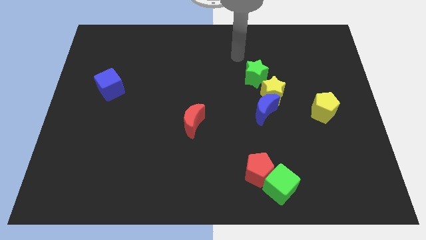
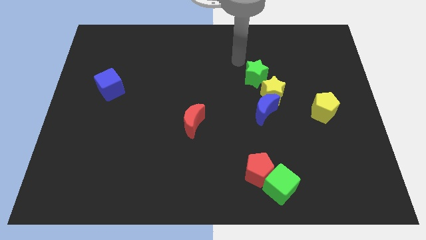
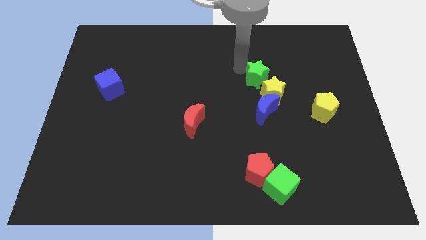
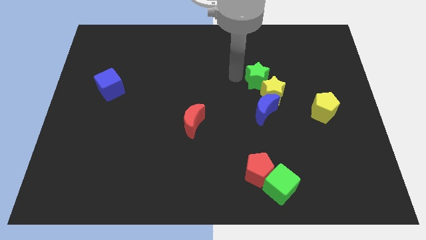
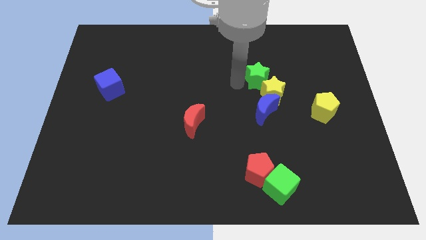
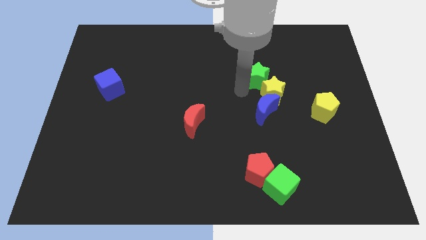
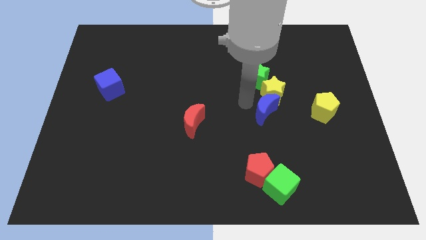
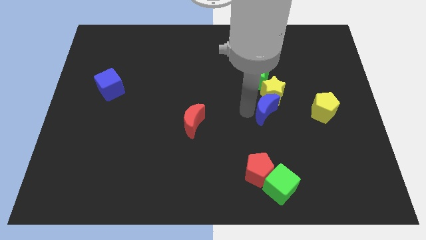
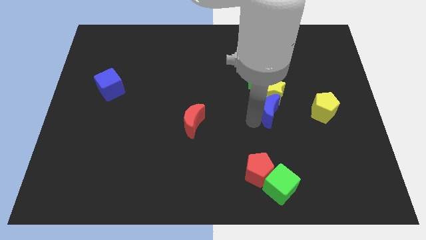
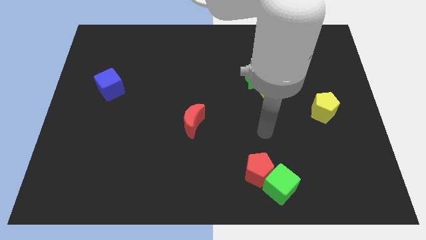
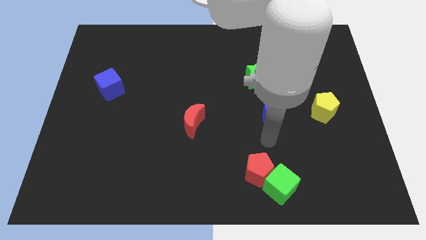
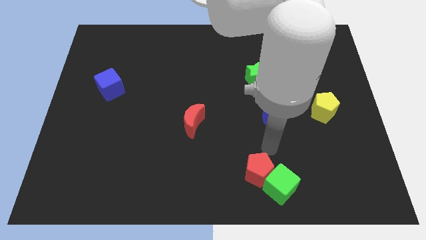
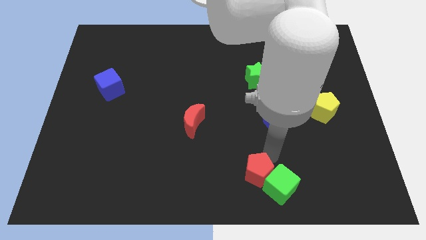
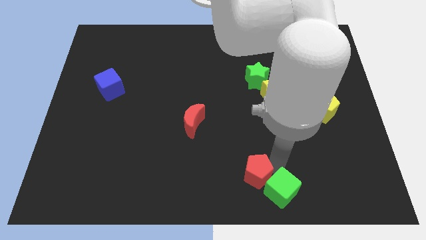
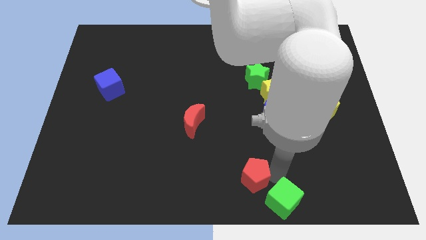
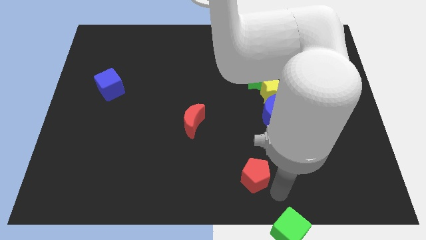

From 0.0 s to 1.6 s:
separate the red pentagon from the green cube

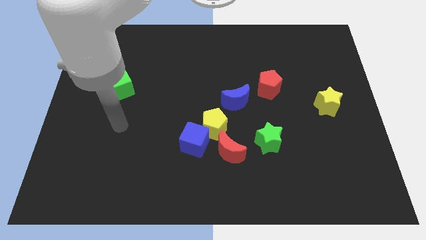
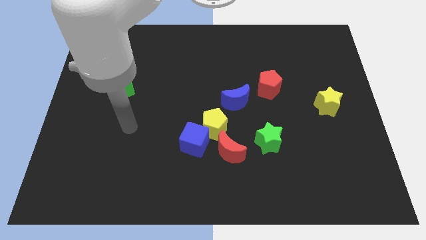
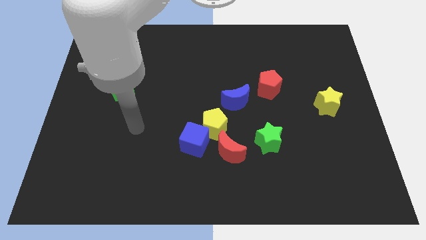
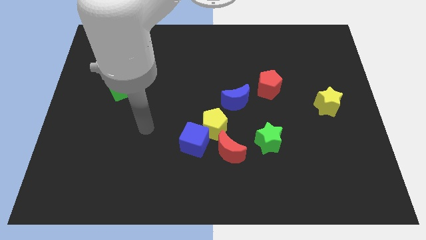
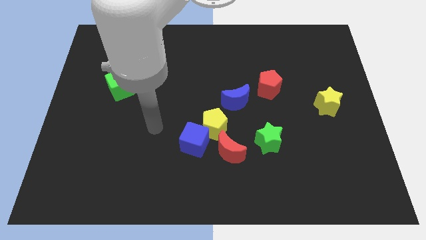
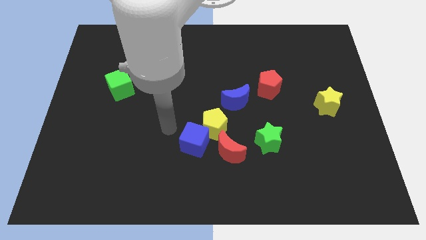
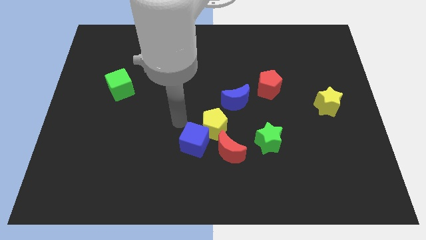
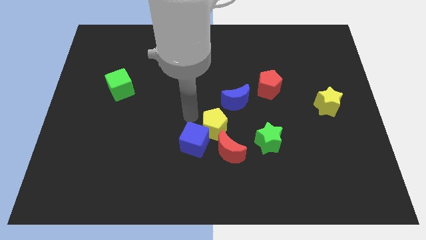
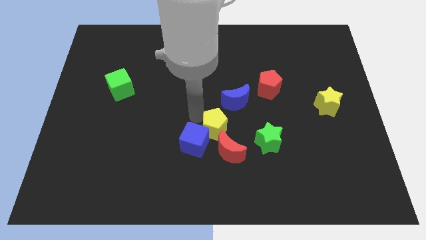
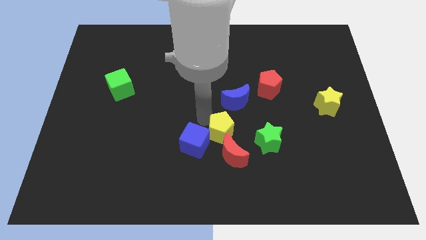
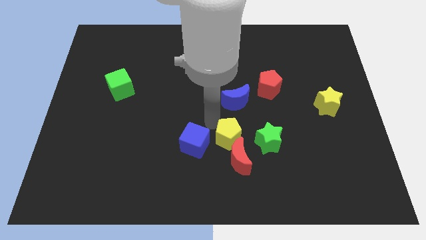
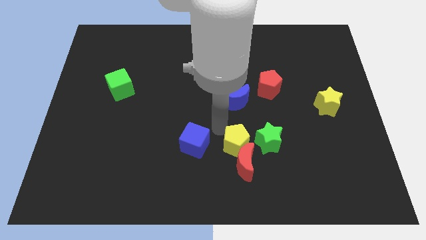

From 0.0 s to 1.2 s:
pull the blue cube apart from the yellow pentagon and red moon

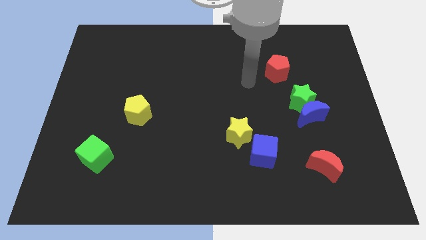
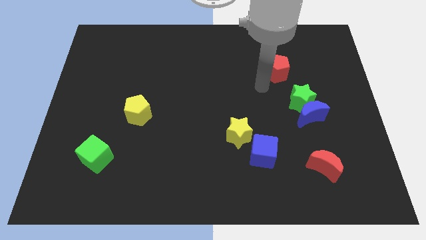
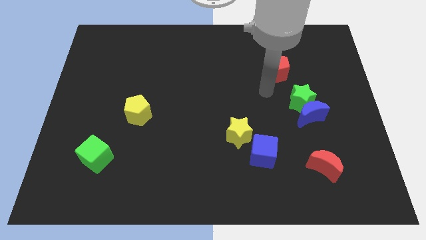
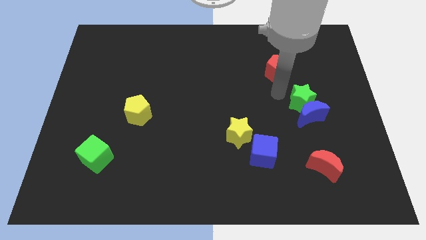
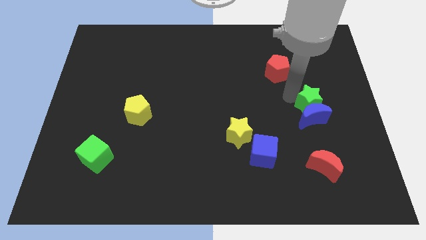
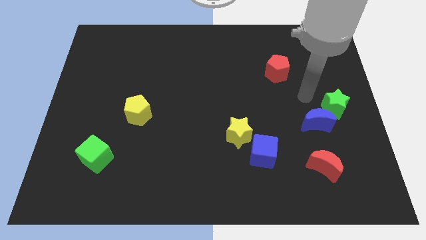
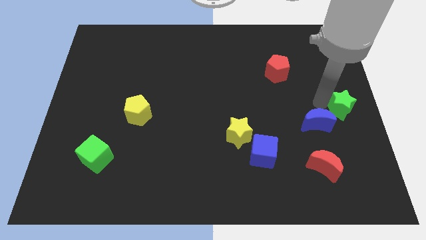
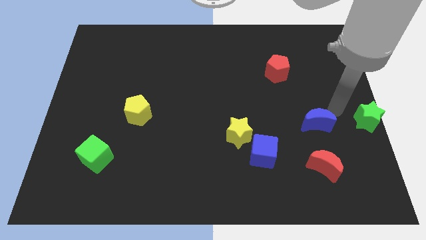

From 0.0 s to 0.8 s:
pull the blue moon apart from the green star

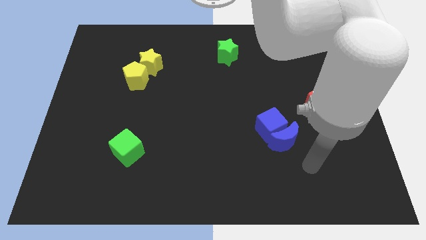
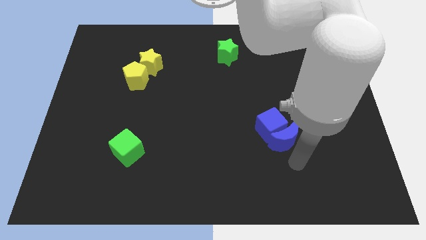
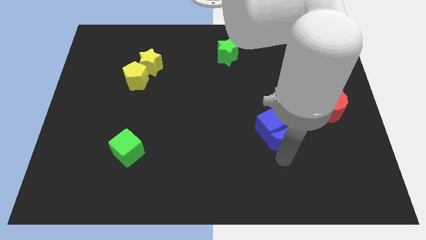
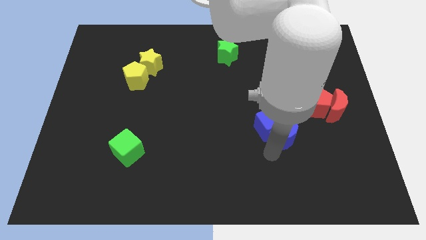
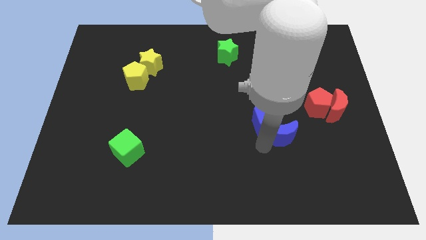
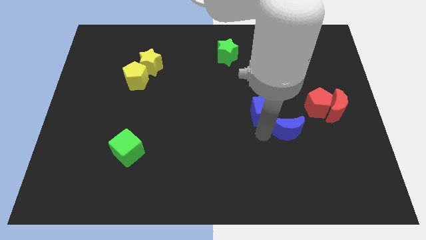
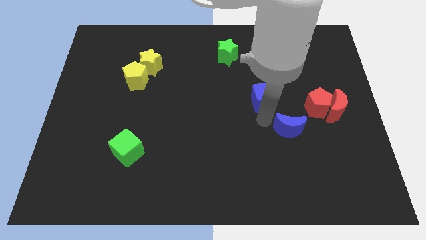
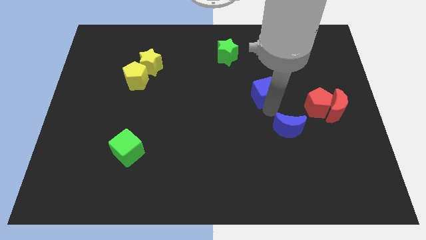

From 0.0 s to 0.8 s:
separate the blue moon from the blue cube

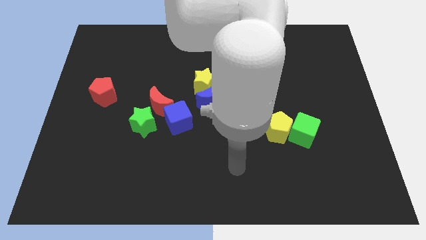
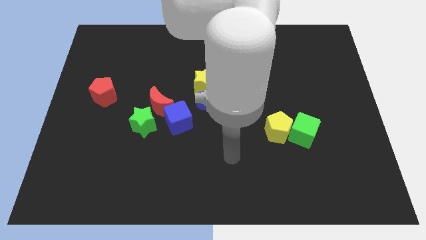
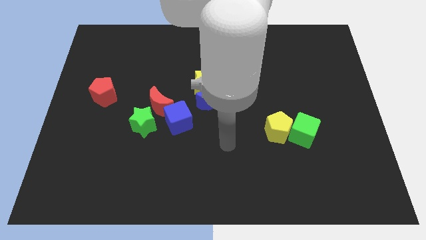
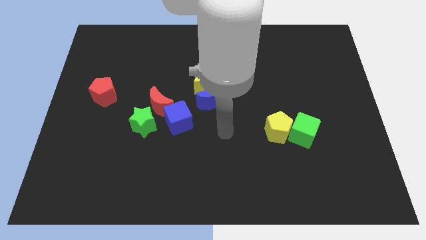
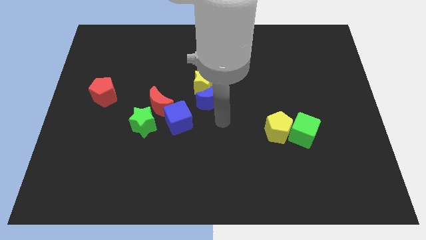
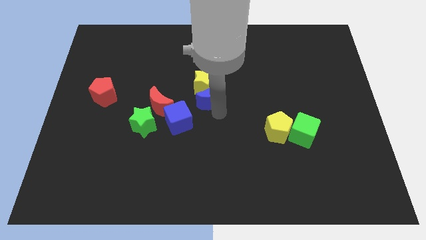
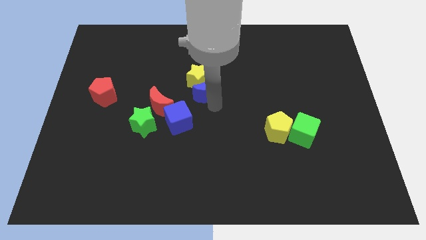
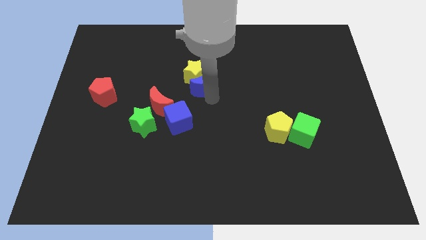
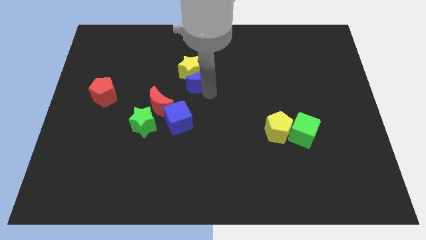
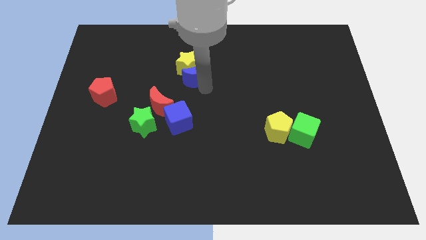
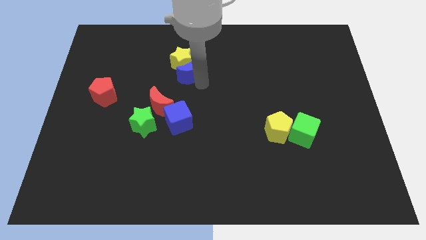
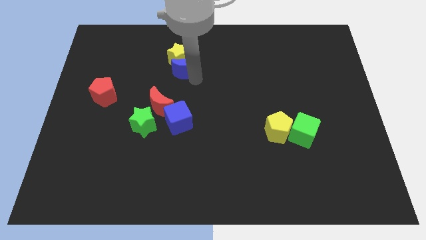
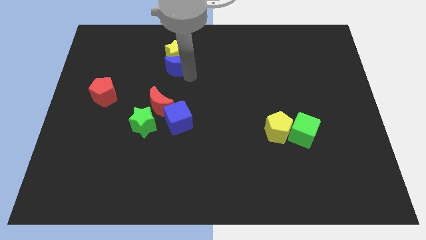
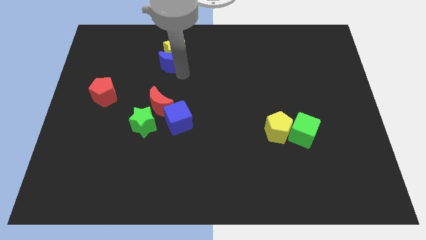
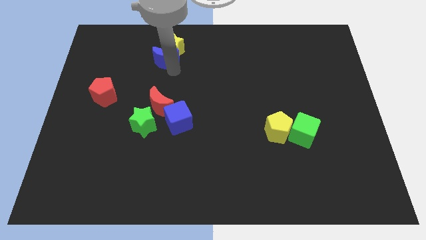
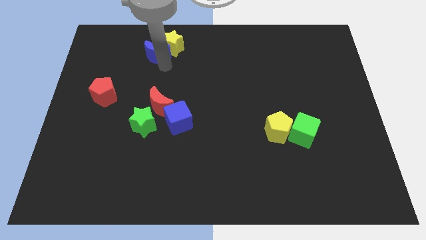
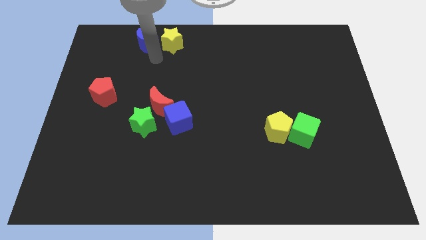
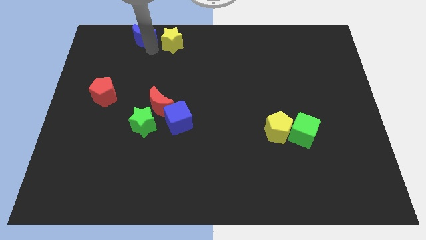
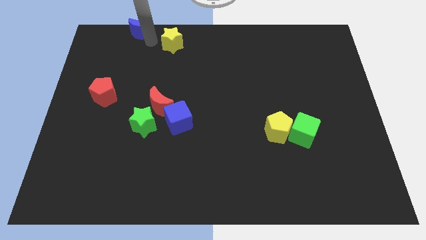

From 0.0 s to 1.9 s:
pull the yellow star apart from the blue moon

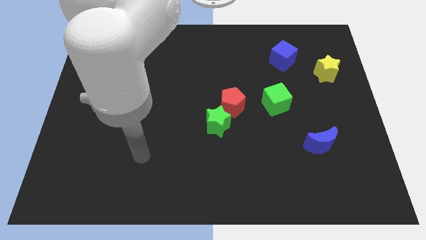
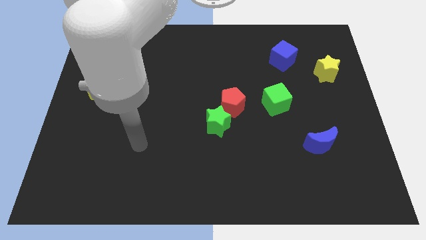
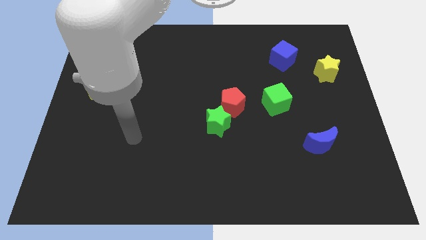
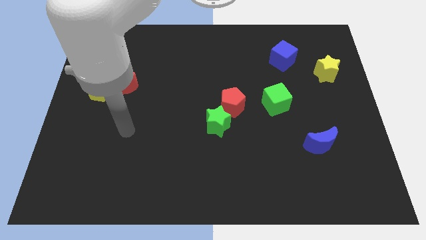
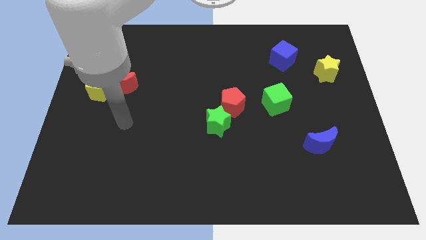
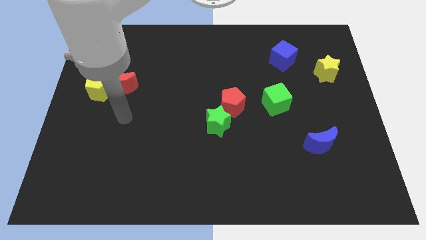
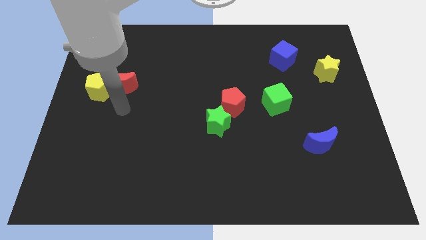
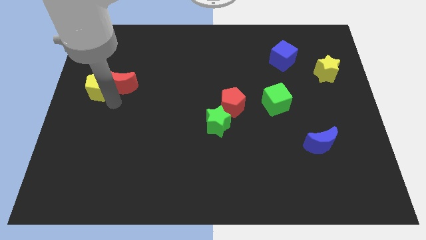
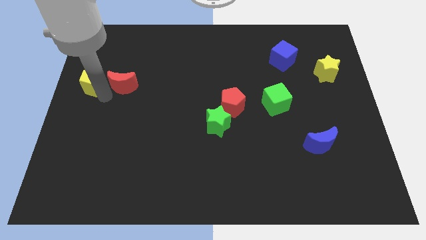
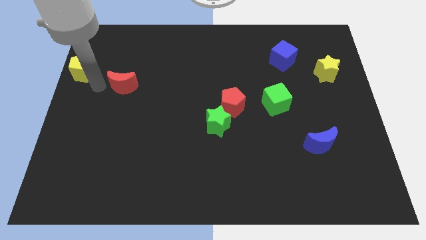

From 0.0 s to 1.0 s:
move the red moon away from the yellow pentagon

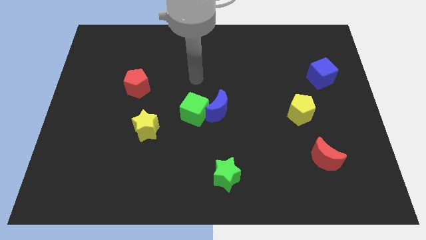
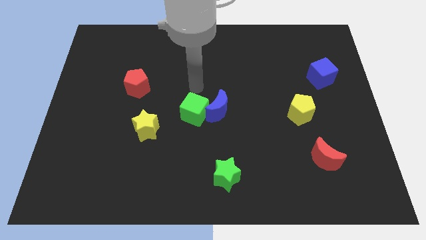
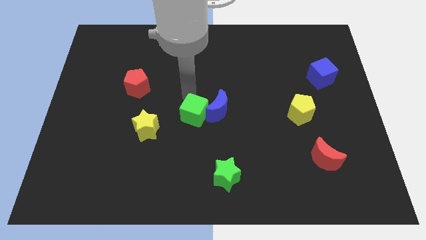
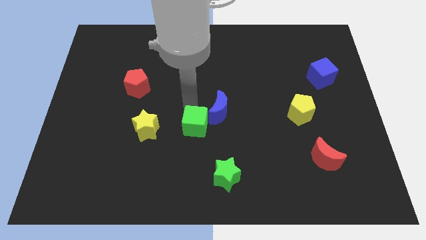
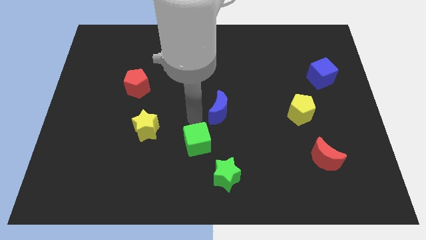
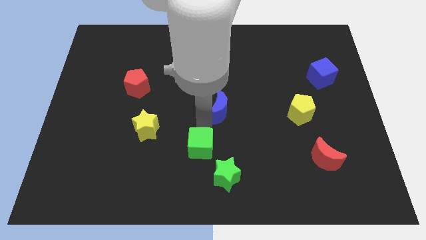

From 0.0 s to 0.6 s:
separate the blue moon from the green cube

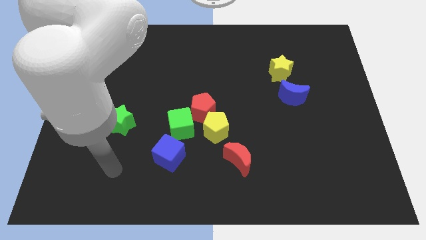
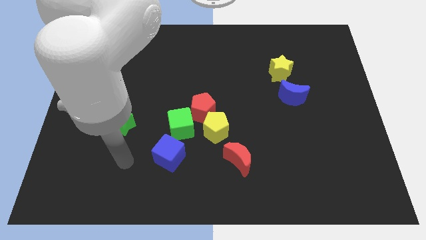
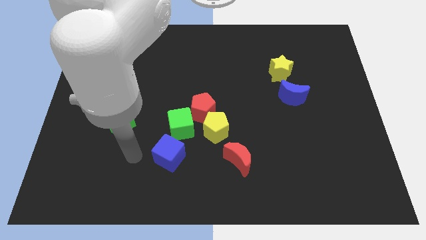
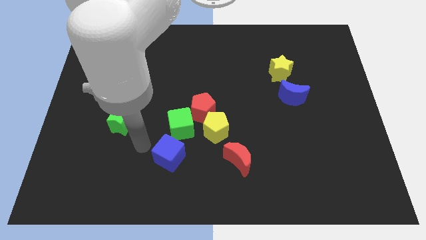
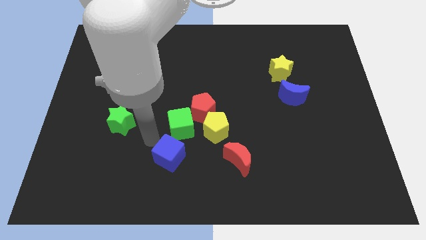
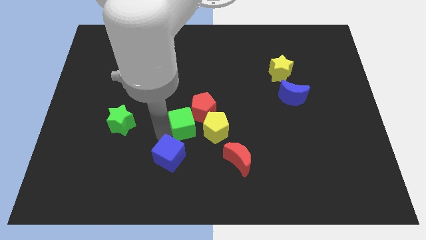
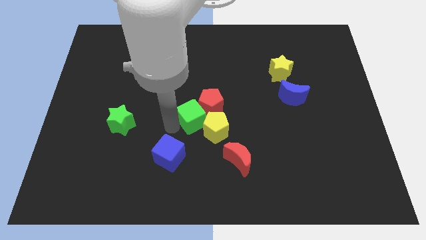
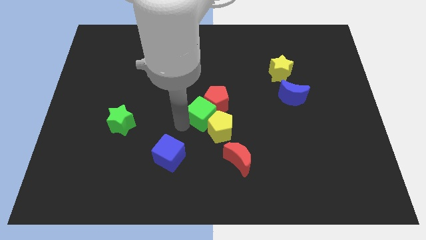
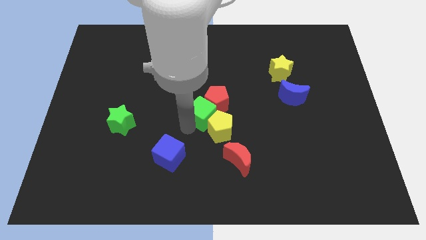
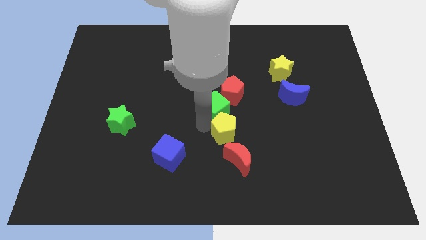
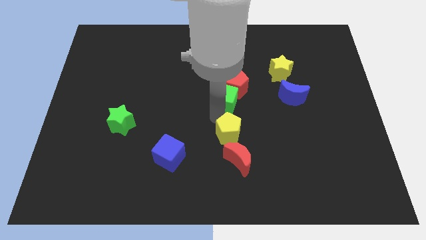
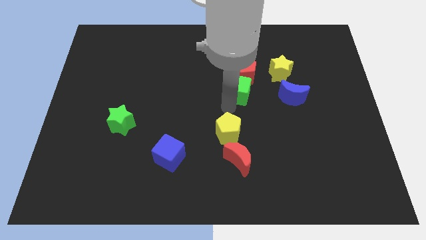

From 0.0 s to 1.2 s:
move the red pentagon away from the yellow pentagon and green cube

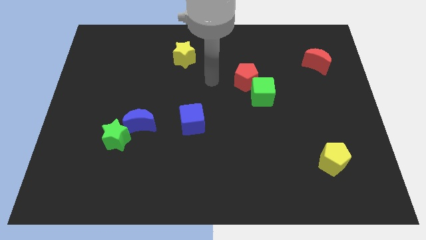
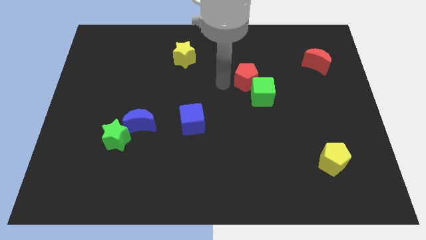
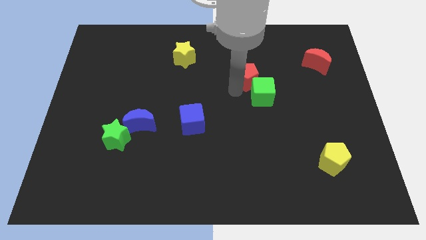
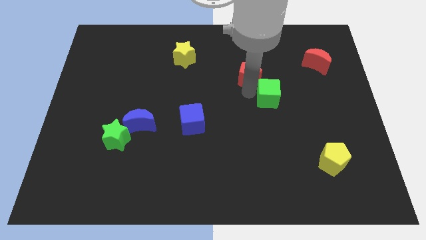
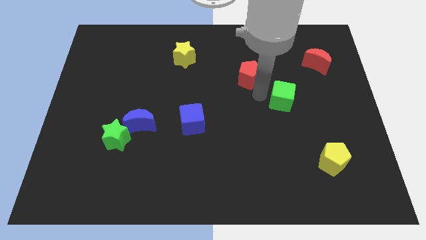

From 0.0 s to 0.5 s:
move the red pentagon away from the green cube
